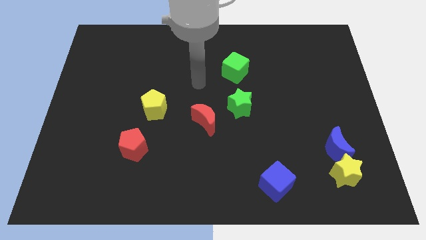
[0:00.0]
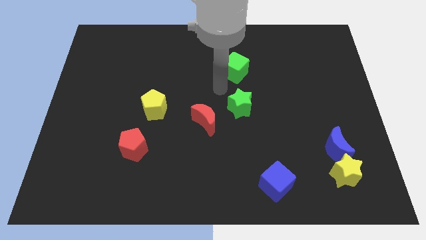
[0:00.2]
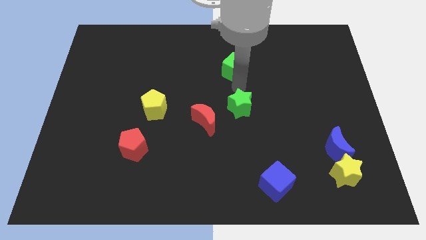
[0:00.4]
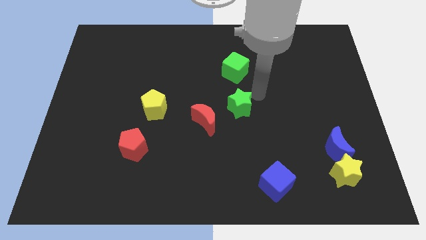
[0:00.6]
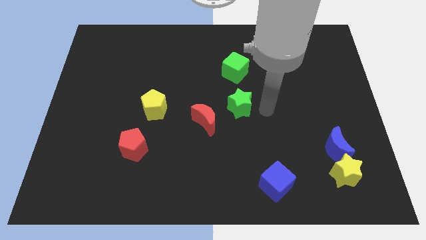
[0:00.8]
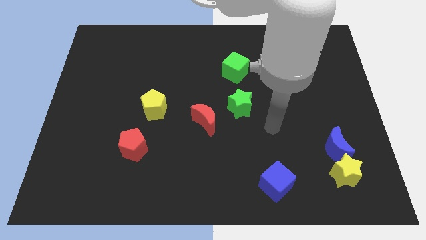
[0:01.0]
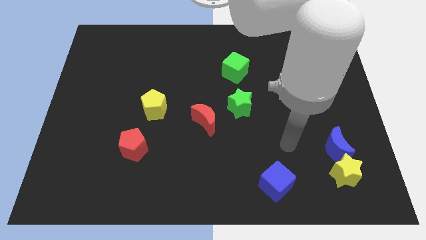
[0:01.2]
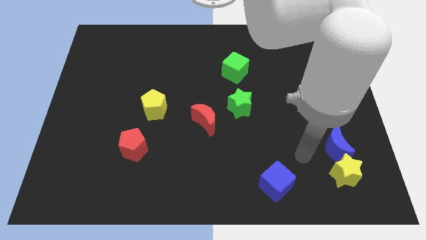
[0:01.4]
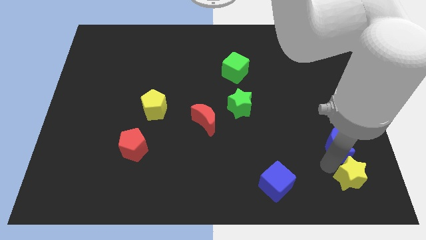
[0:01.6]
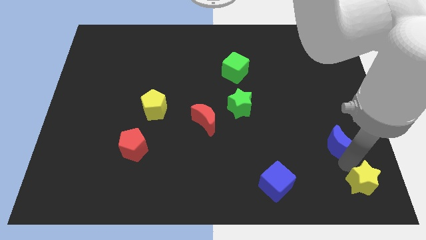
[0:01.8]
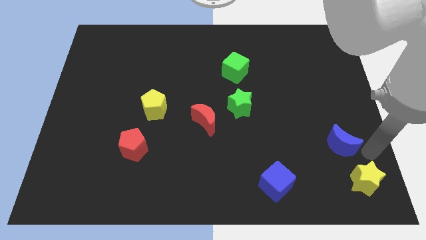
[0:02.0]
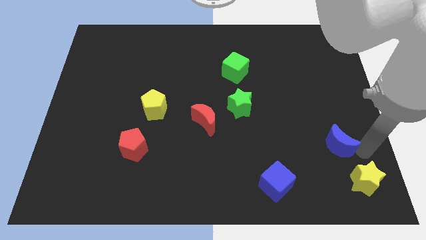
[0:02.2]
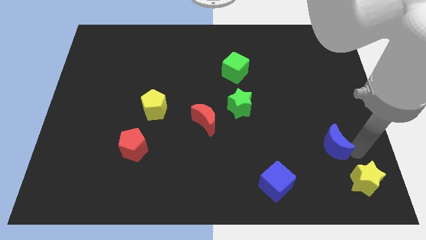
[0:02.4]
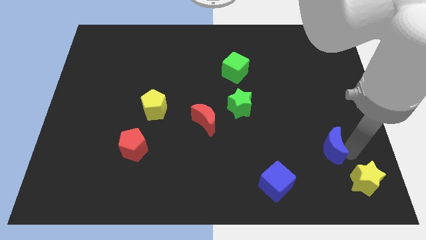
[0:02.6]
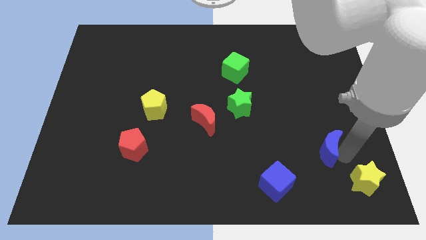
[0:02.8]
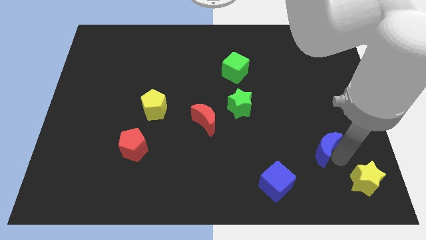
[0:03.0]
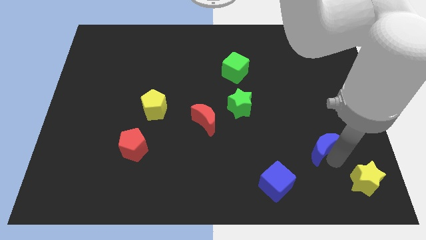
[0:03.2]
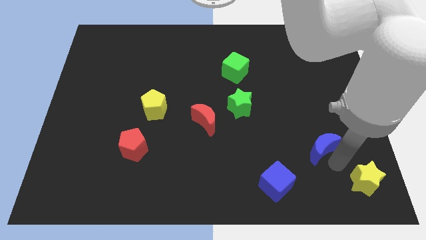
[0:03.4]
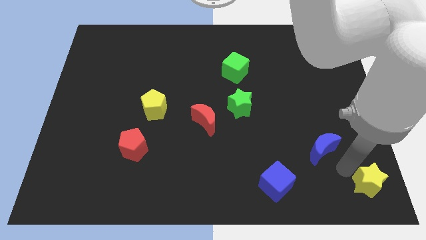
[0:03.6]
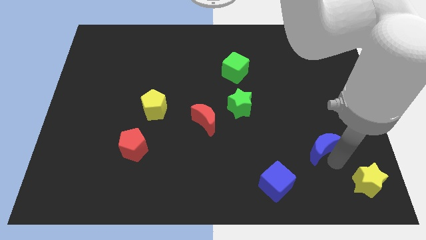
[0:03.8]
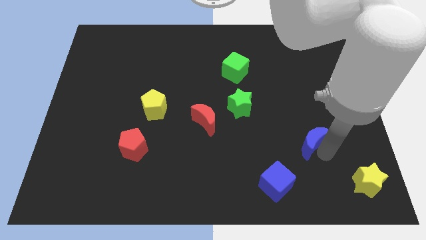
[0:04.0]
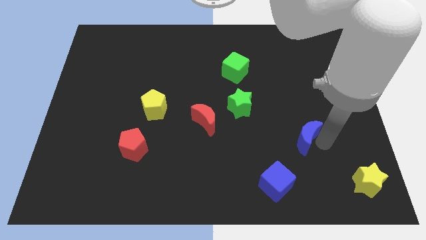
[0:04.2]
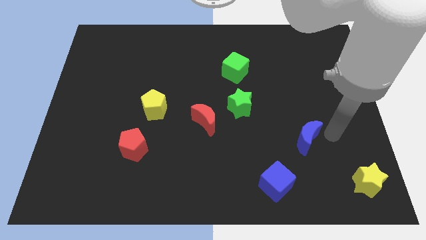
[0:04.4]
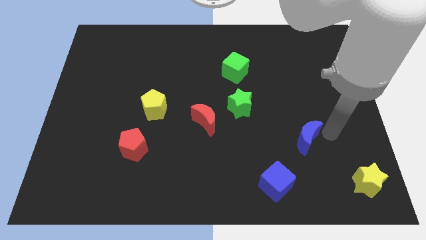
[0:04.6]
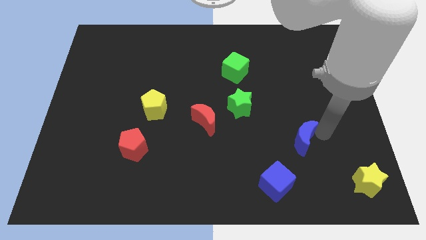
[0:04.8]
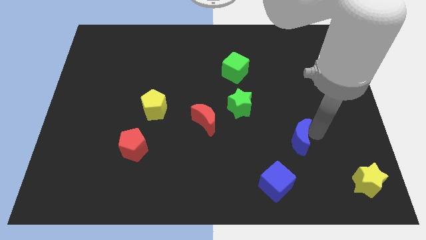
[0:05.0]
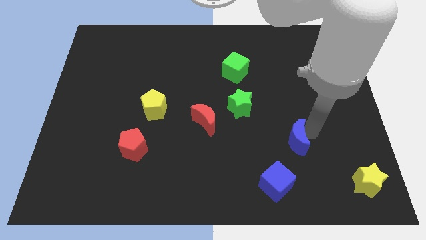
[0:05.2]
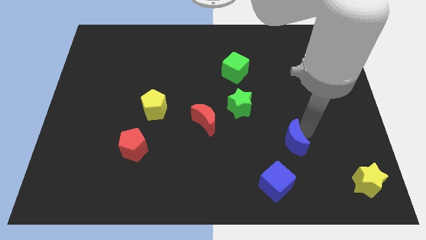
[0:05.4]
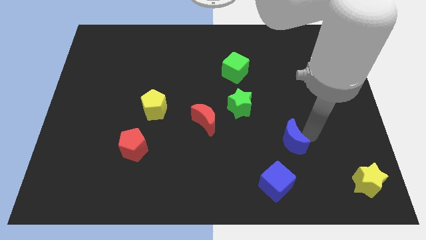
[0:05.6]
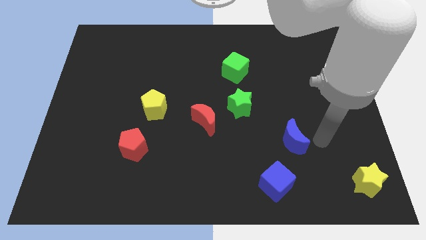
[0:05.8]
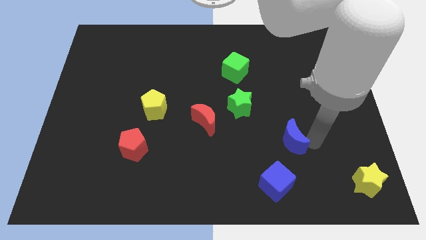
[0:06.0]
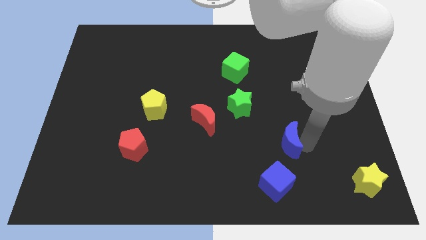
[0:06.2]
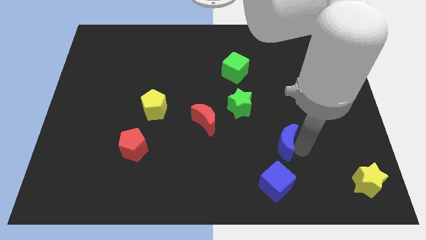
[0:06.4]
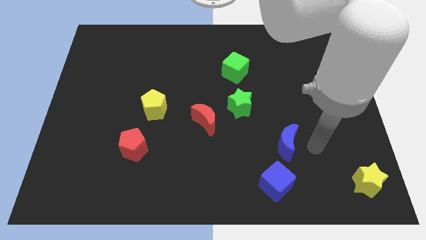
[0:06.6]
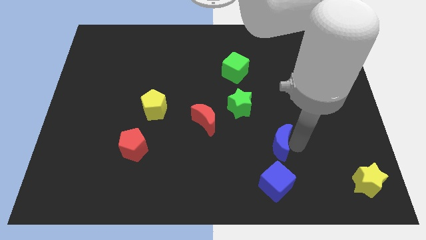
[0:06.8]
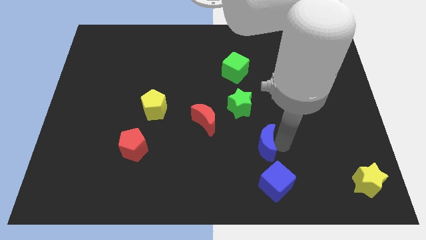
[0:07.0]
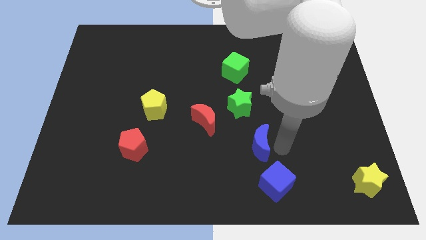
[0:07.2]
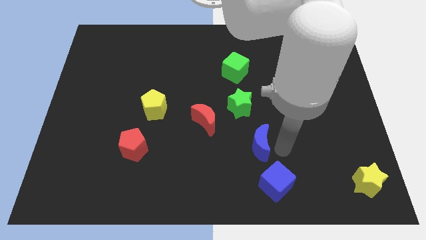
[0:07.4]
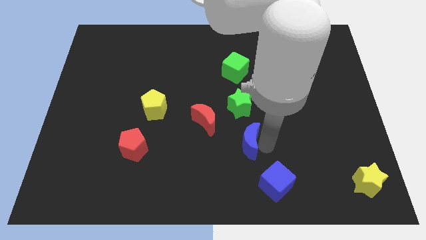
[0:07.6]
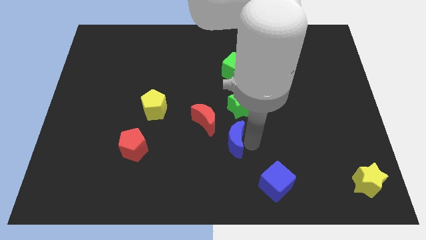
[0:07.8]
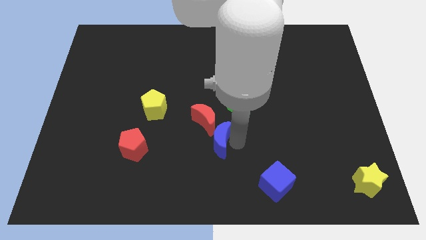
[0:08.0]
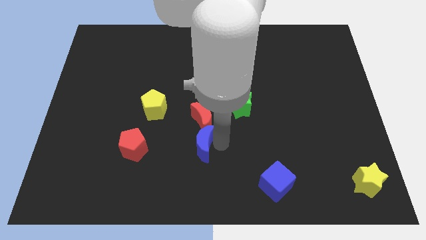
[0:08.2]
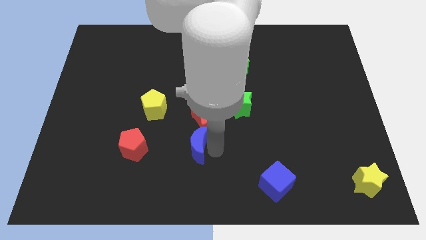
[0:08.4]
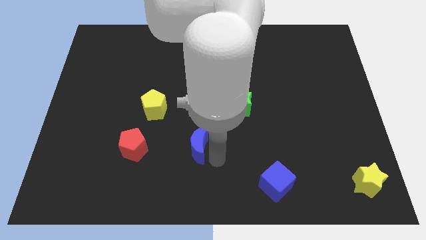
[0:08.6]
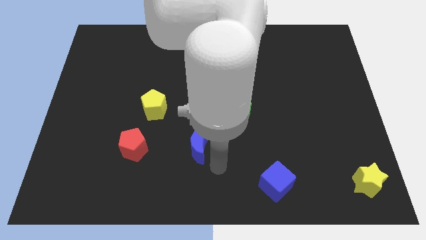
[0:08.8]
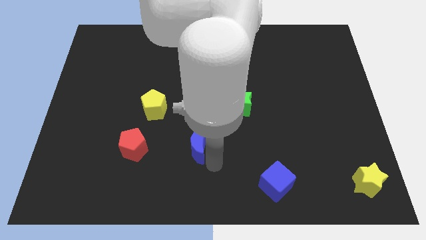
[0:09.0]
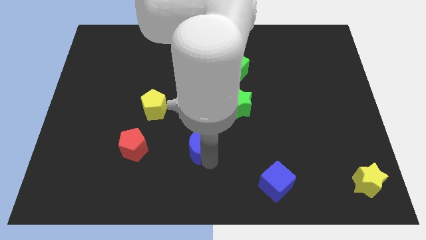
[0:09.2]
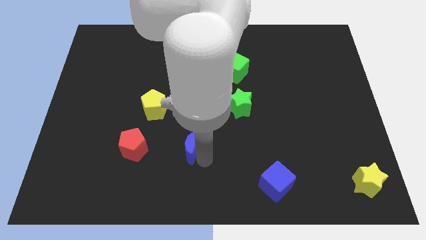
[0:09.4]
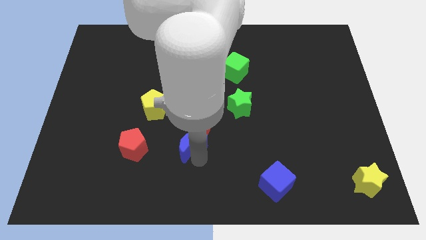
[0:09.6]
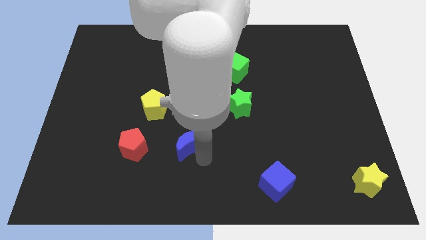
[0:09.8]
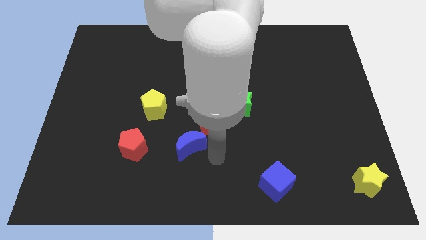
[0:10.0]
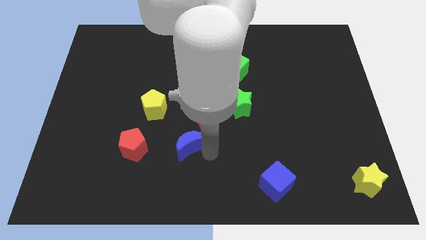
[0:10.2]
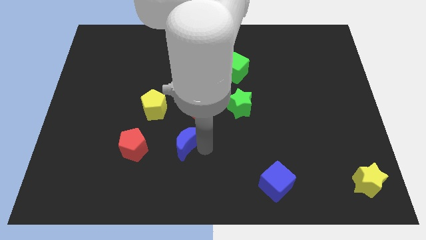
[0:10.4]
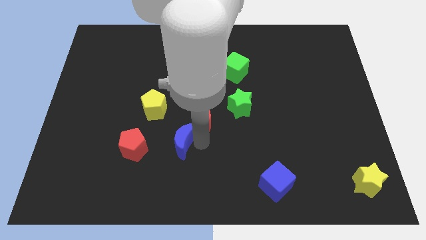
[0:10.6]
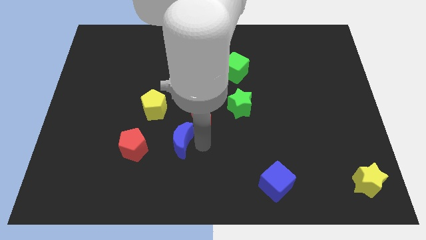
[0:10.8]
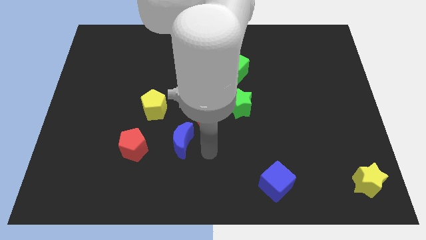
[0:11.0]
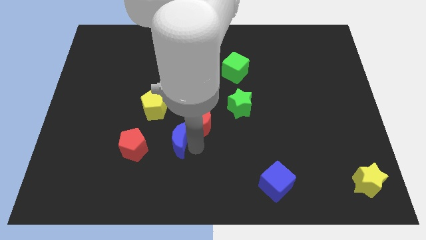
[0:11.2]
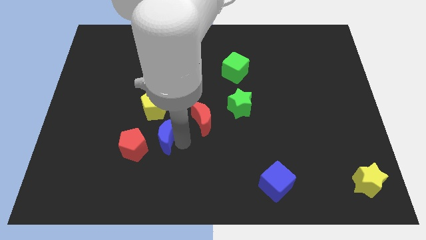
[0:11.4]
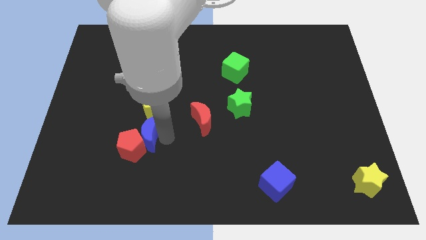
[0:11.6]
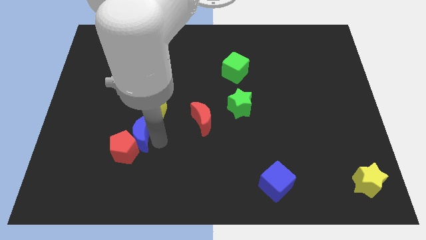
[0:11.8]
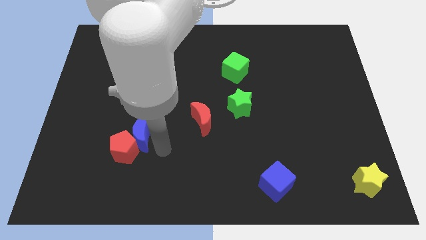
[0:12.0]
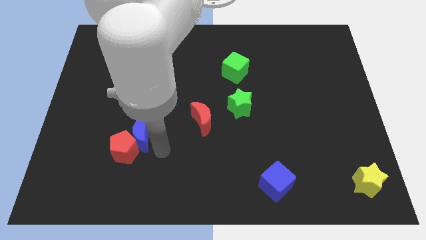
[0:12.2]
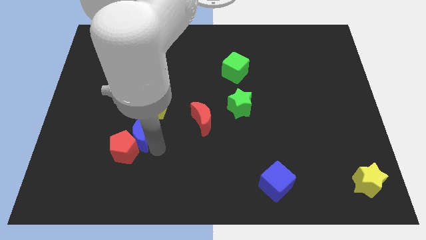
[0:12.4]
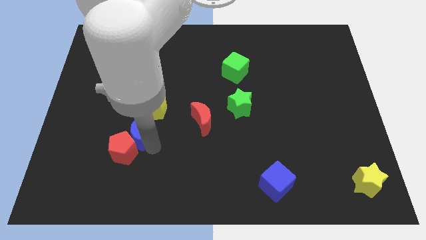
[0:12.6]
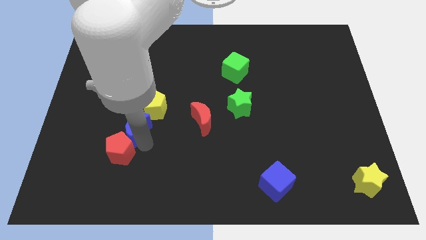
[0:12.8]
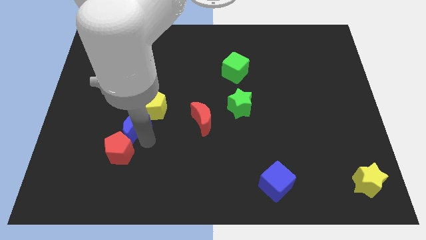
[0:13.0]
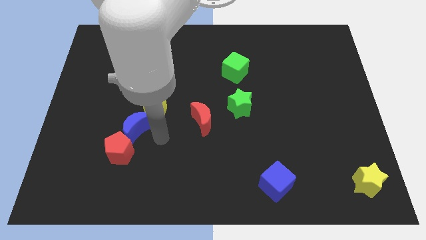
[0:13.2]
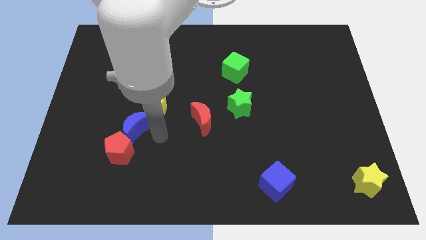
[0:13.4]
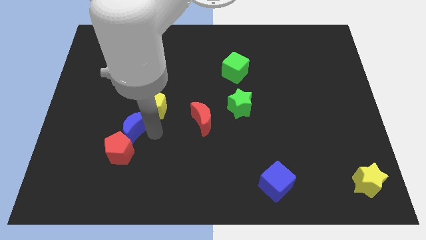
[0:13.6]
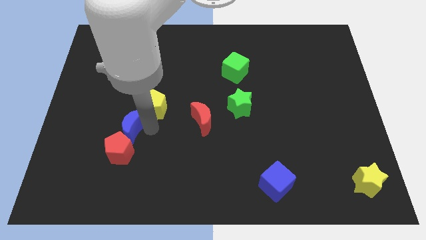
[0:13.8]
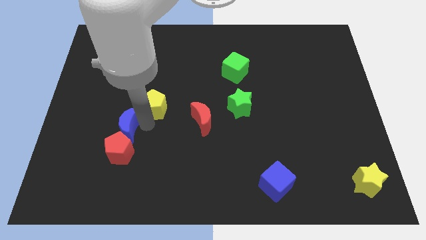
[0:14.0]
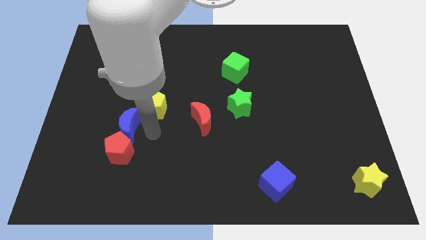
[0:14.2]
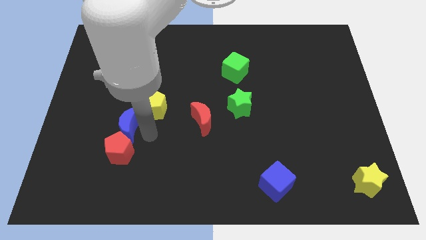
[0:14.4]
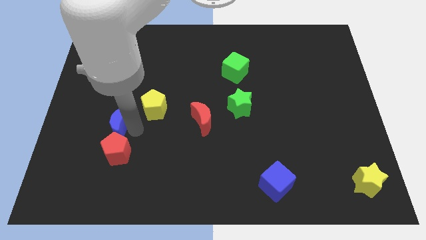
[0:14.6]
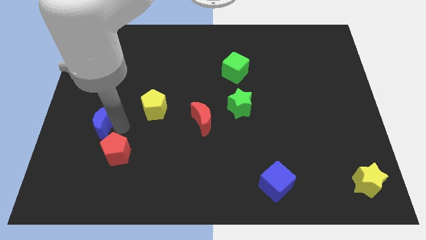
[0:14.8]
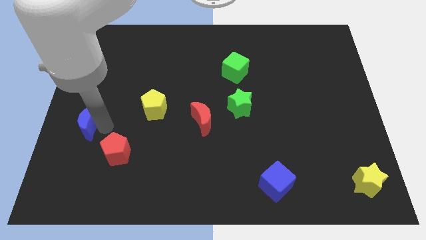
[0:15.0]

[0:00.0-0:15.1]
slide the blue moon to the left side of the board
